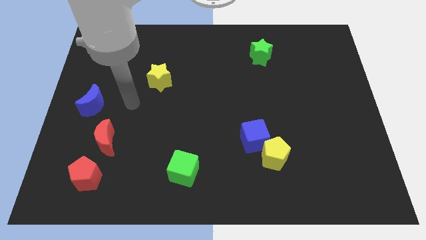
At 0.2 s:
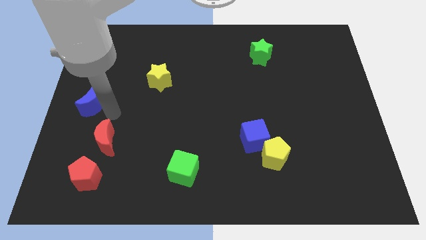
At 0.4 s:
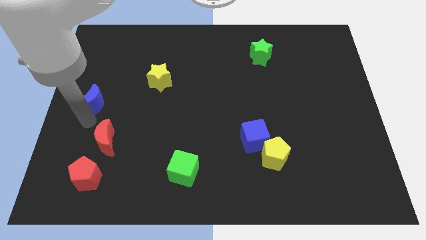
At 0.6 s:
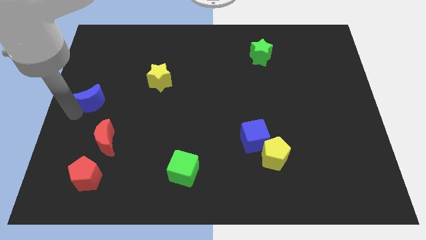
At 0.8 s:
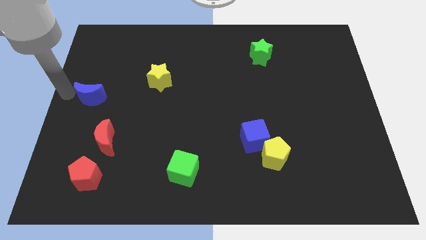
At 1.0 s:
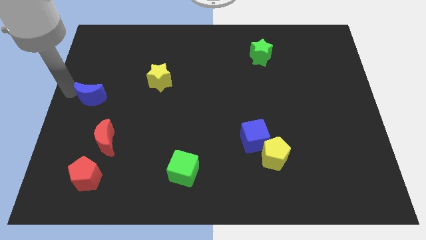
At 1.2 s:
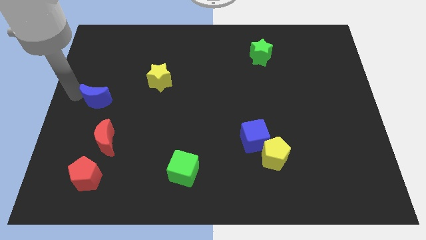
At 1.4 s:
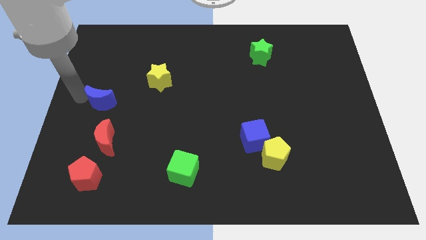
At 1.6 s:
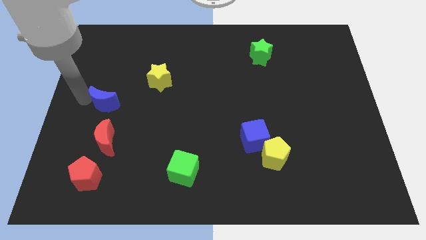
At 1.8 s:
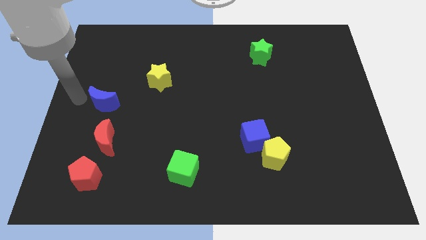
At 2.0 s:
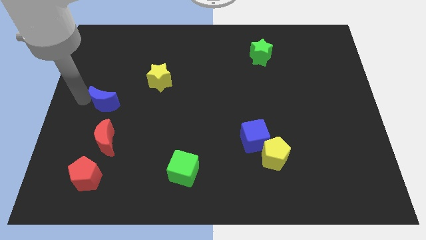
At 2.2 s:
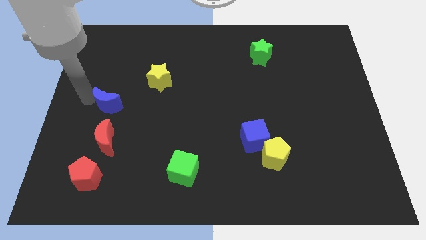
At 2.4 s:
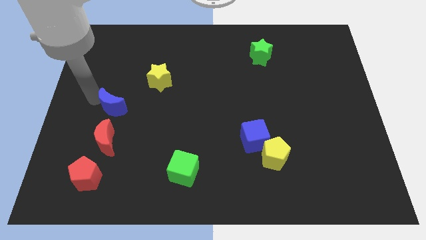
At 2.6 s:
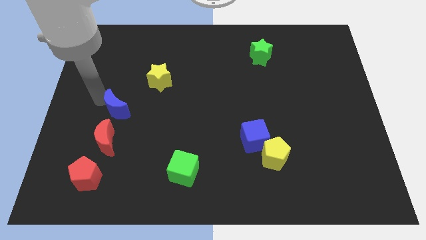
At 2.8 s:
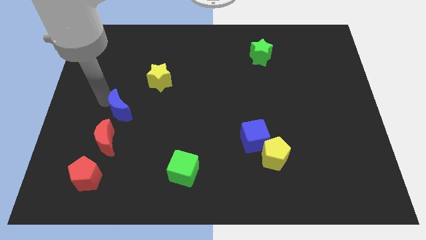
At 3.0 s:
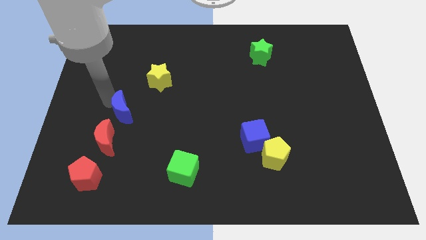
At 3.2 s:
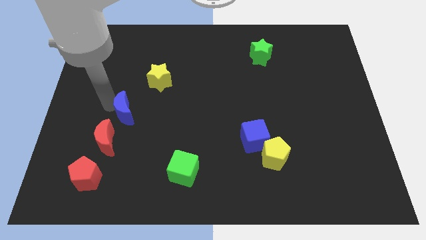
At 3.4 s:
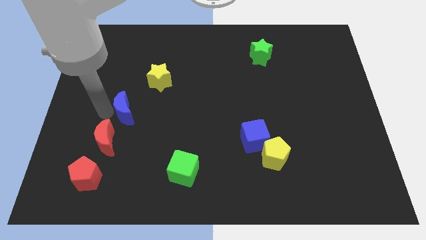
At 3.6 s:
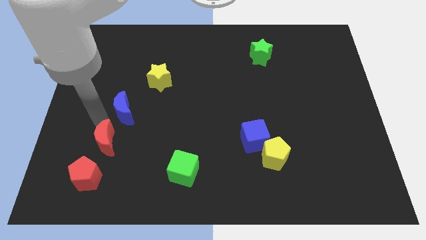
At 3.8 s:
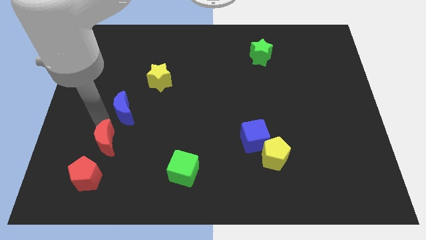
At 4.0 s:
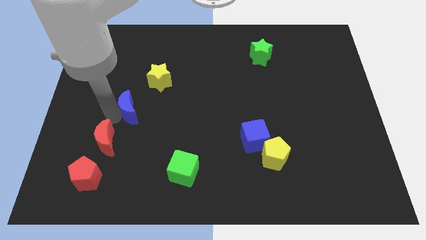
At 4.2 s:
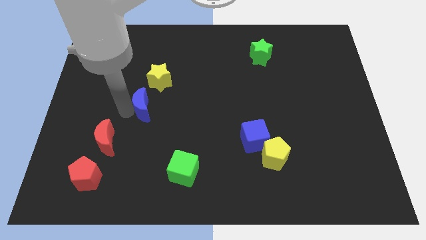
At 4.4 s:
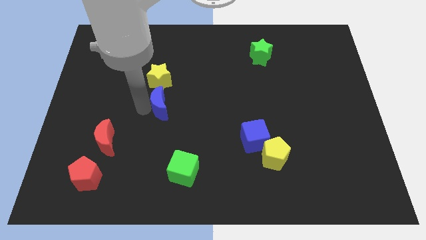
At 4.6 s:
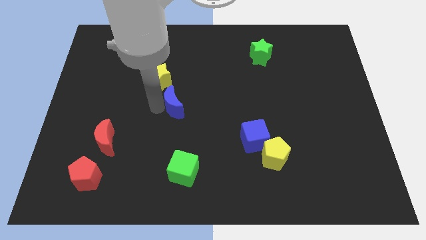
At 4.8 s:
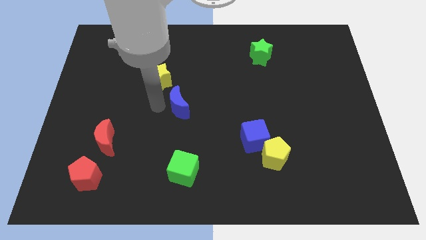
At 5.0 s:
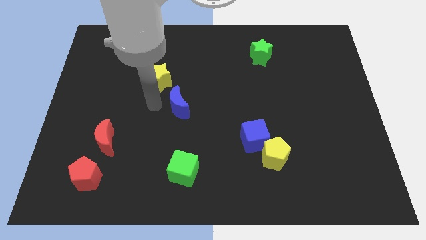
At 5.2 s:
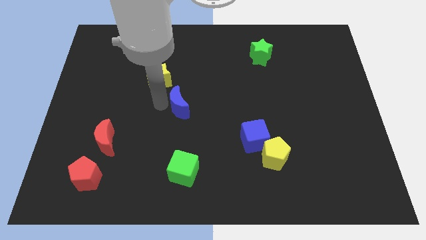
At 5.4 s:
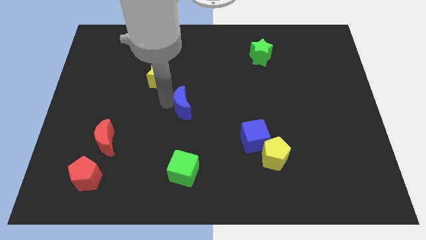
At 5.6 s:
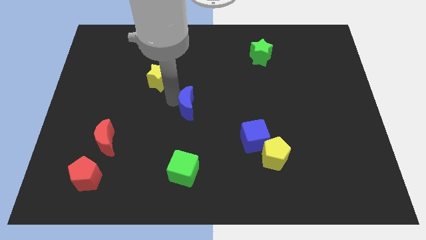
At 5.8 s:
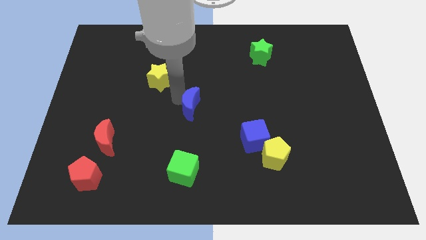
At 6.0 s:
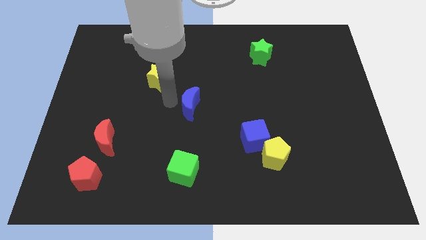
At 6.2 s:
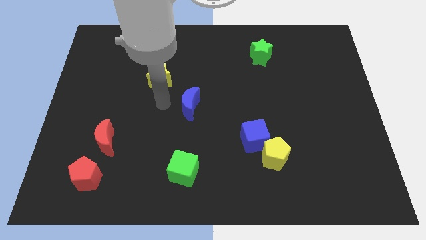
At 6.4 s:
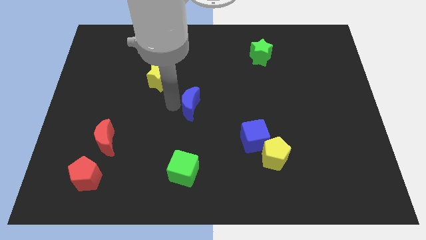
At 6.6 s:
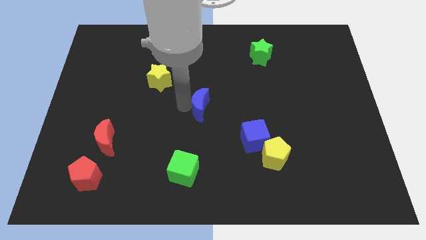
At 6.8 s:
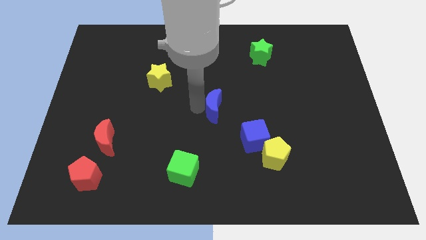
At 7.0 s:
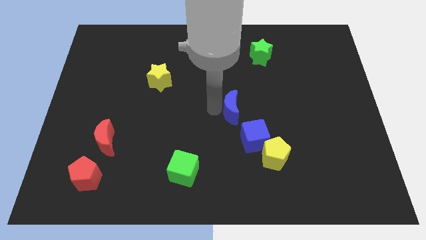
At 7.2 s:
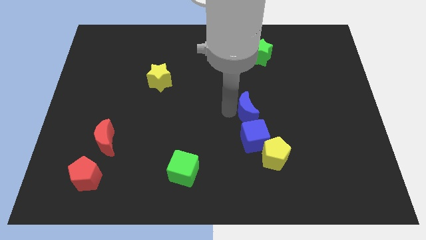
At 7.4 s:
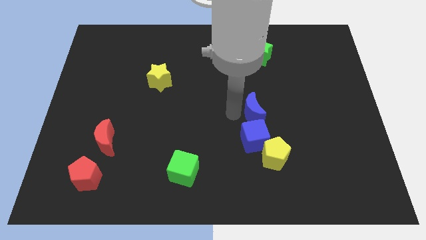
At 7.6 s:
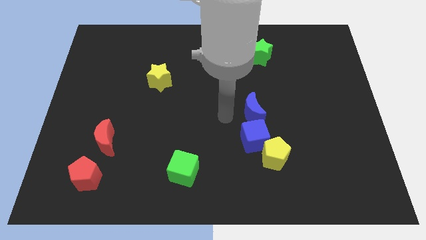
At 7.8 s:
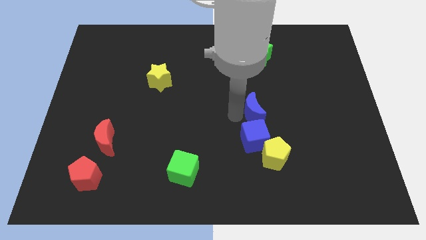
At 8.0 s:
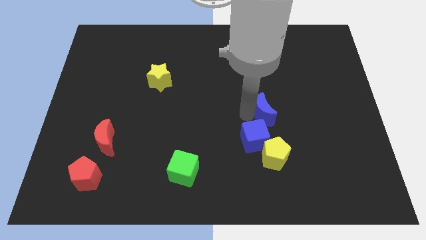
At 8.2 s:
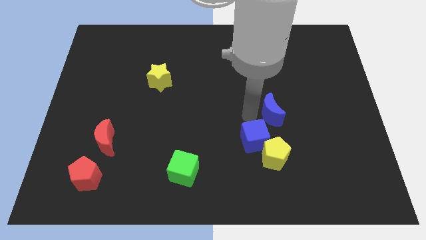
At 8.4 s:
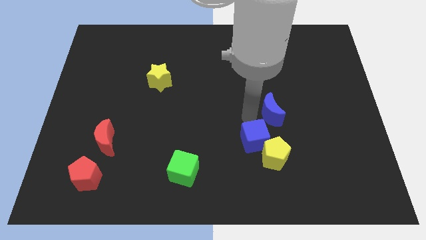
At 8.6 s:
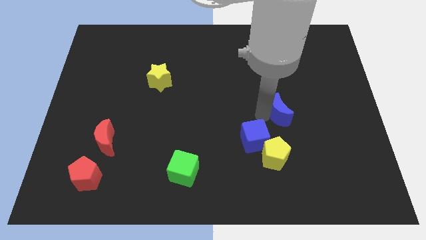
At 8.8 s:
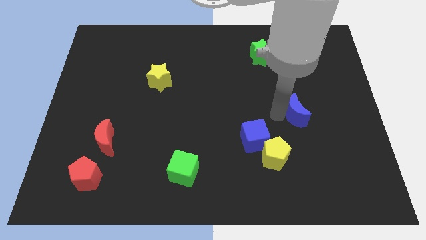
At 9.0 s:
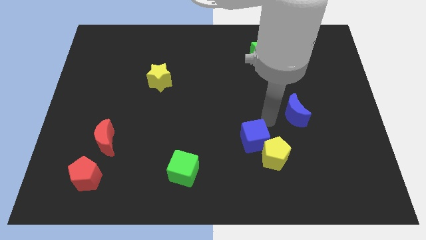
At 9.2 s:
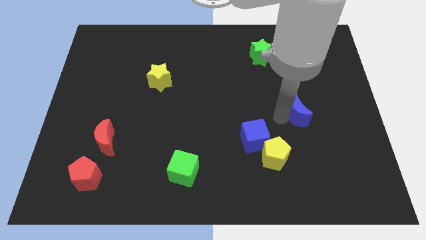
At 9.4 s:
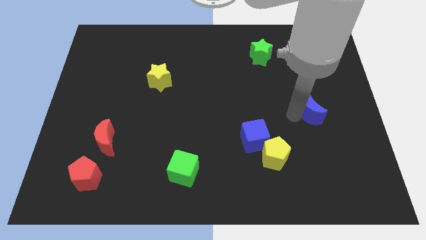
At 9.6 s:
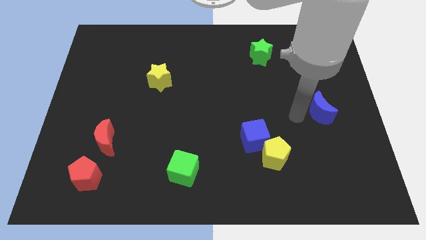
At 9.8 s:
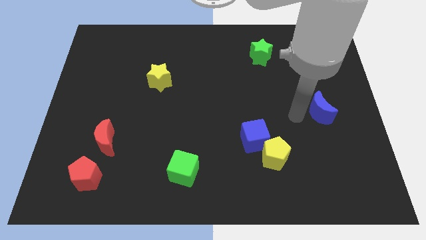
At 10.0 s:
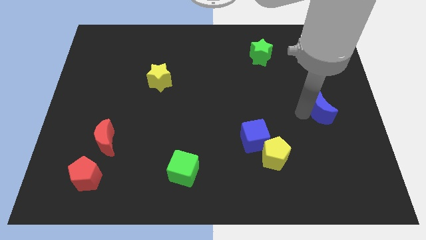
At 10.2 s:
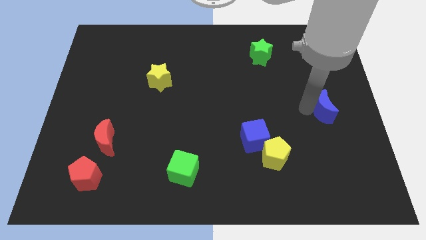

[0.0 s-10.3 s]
put the blue moon to the center right

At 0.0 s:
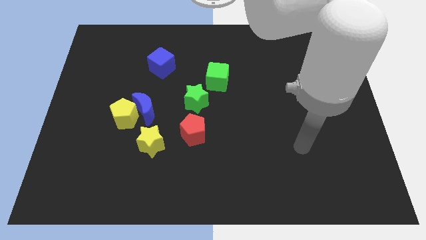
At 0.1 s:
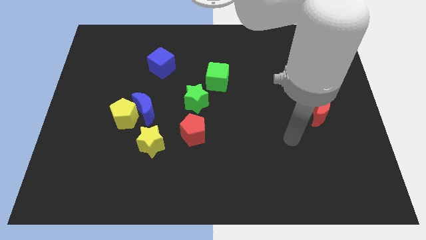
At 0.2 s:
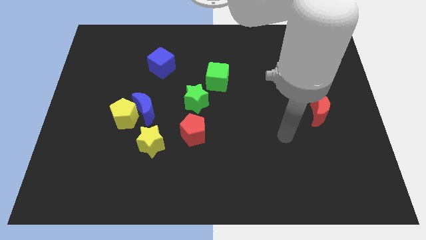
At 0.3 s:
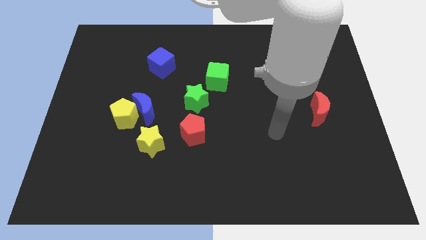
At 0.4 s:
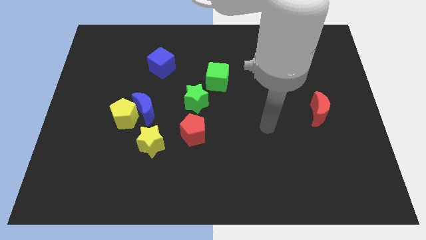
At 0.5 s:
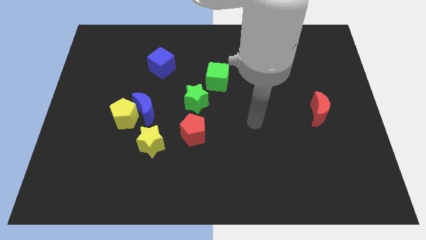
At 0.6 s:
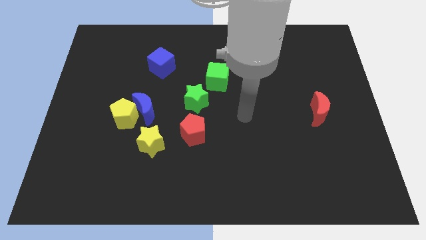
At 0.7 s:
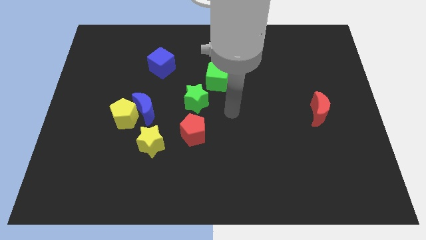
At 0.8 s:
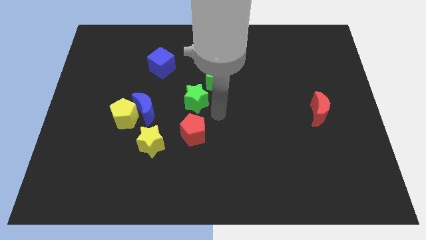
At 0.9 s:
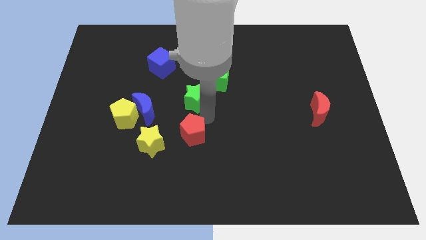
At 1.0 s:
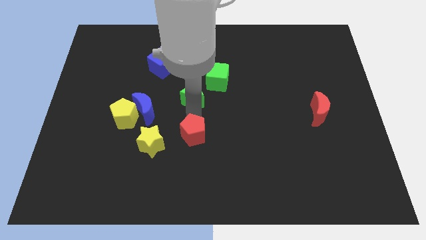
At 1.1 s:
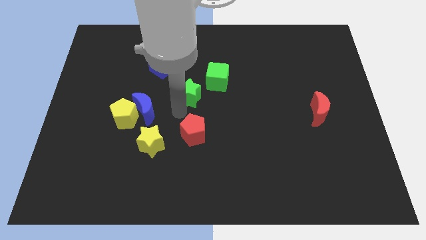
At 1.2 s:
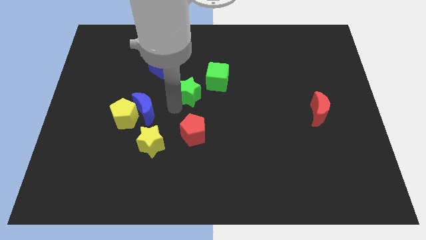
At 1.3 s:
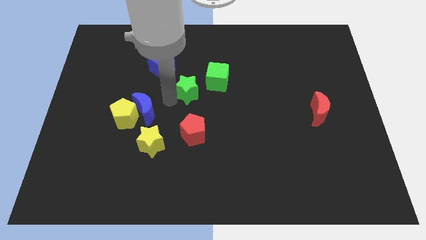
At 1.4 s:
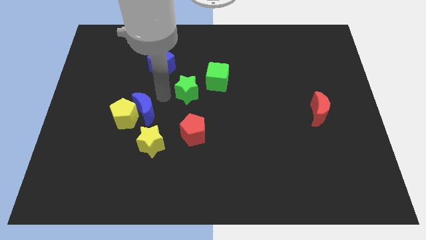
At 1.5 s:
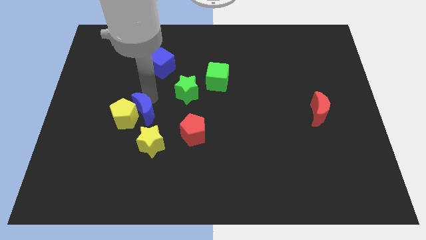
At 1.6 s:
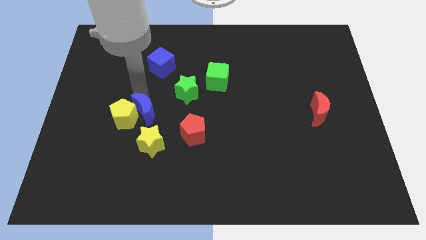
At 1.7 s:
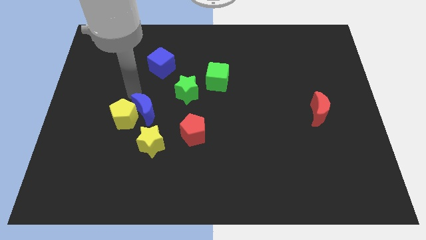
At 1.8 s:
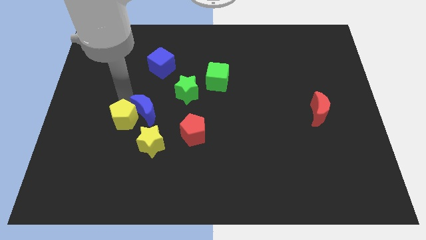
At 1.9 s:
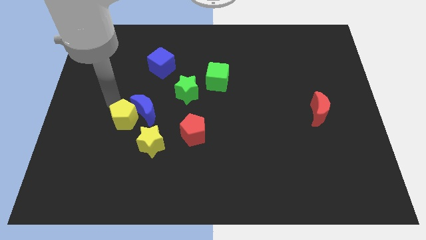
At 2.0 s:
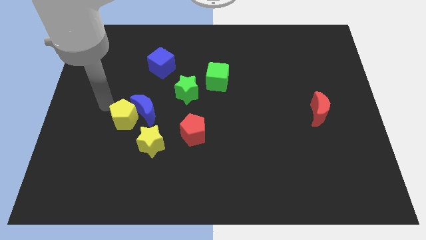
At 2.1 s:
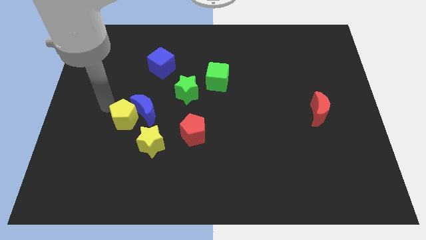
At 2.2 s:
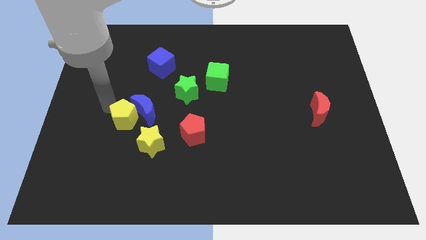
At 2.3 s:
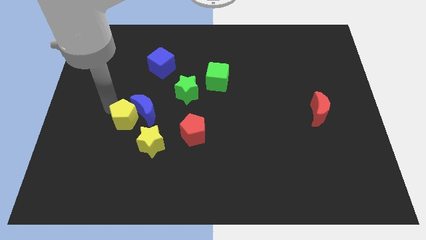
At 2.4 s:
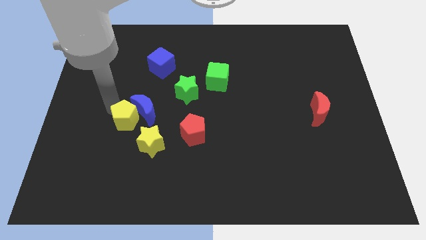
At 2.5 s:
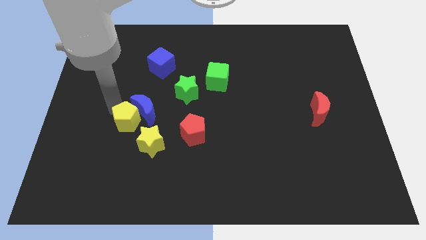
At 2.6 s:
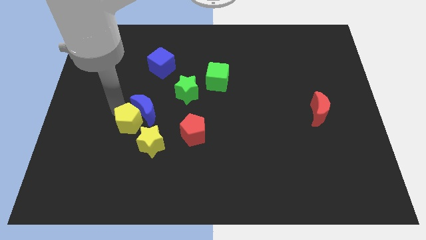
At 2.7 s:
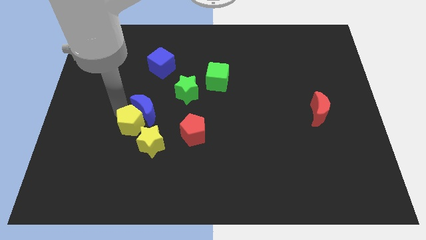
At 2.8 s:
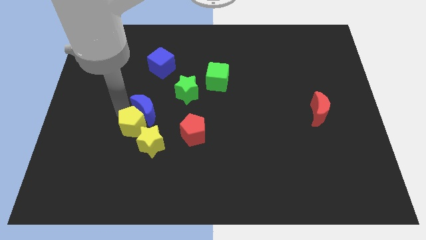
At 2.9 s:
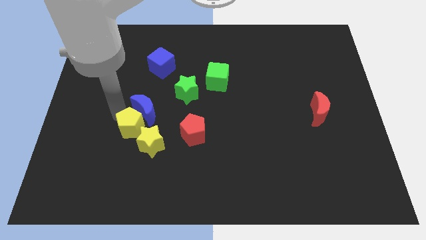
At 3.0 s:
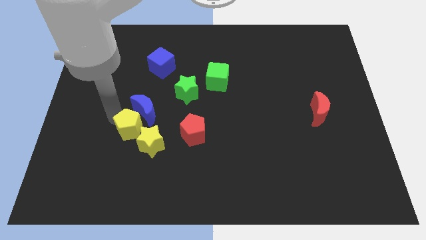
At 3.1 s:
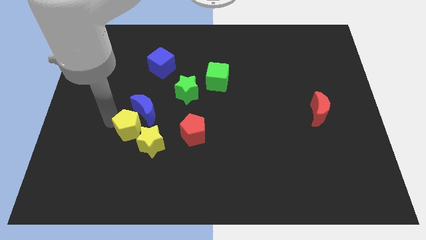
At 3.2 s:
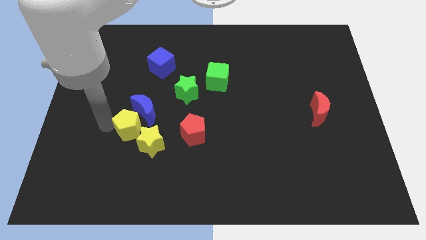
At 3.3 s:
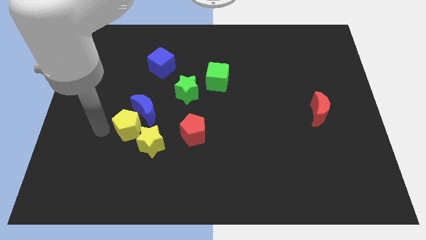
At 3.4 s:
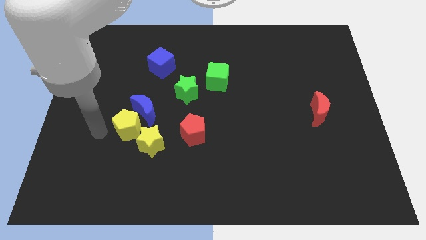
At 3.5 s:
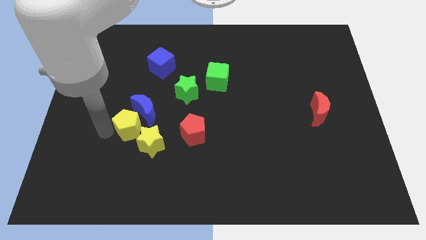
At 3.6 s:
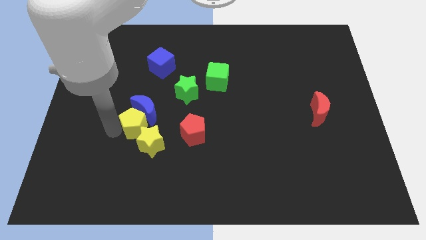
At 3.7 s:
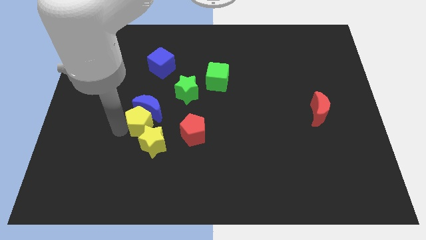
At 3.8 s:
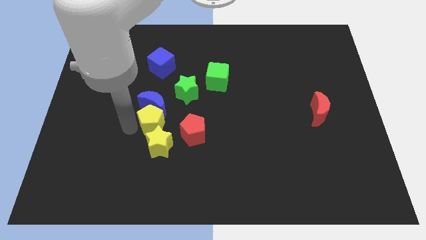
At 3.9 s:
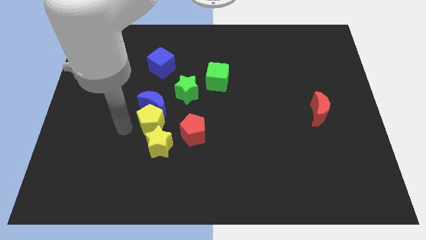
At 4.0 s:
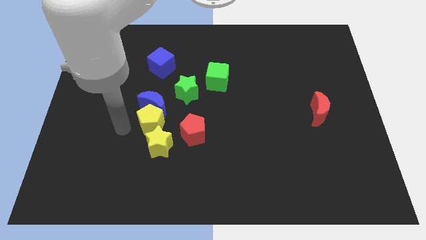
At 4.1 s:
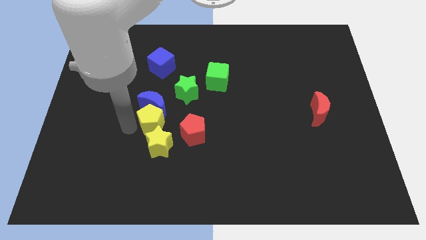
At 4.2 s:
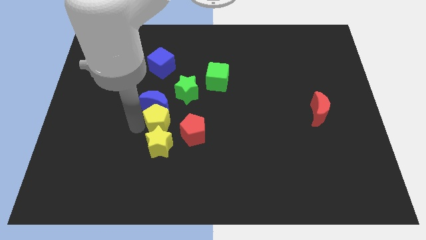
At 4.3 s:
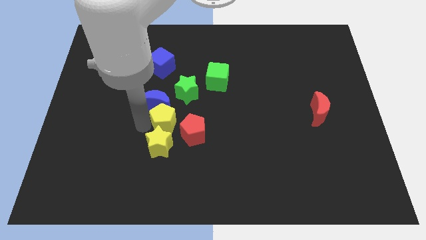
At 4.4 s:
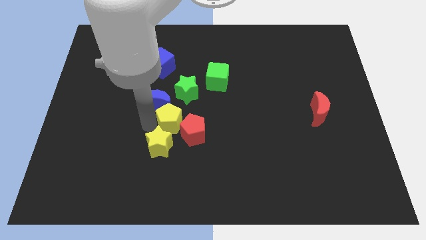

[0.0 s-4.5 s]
slide the yellow pentagon to the center of the board
